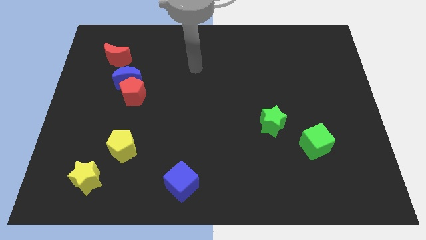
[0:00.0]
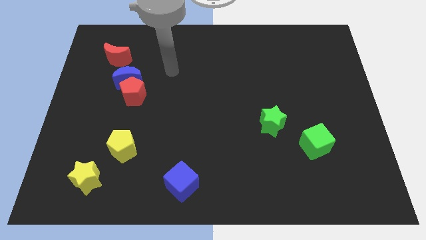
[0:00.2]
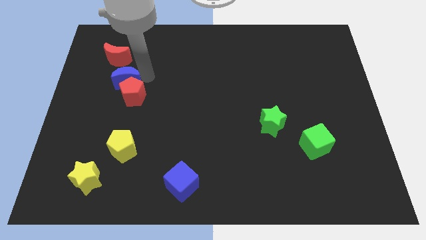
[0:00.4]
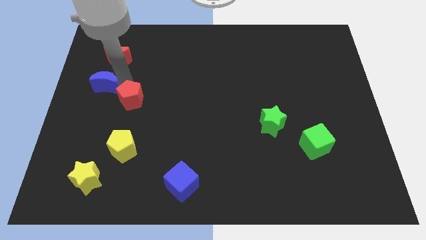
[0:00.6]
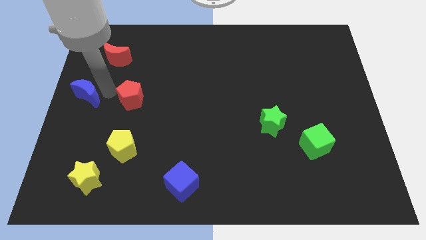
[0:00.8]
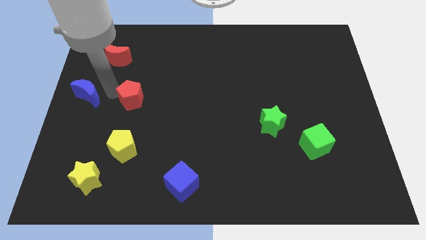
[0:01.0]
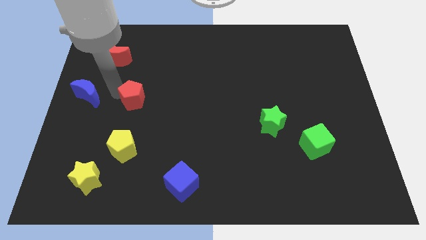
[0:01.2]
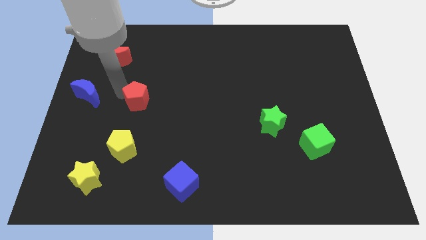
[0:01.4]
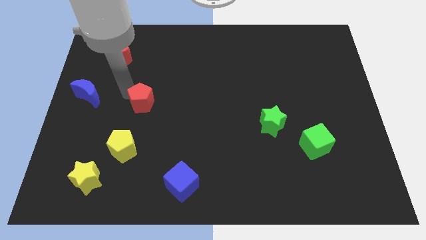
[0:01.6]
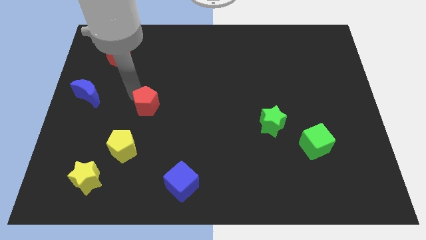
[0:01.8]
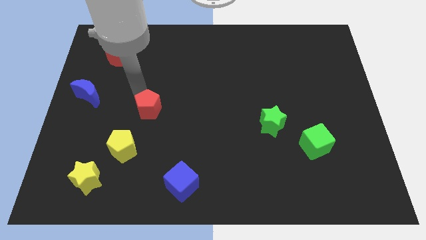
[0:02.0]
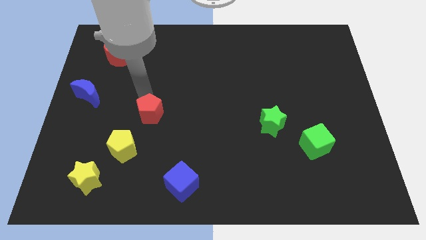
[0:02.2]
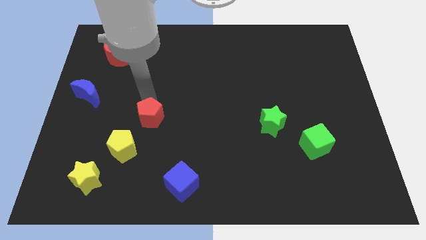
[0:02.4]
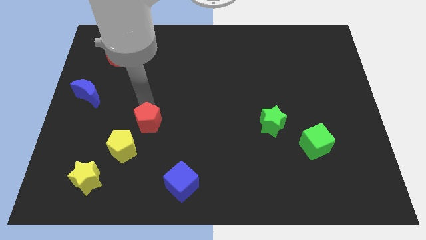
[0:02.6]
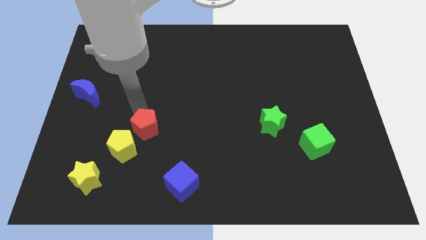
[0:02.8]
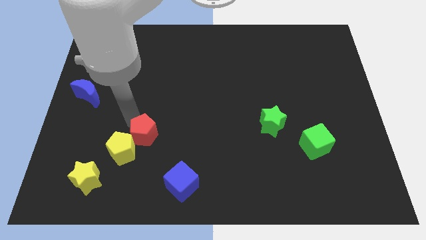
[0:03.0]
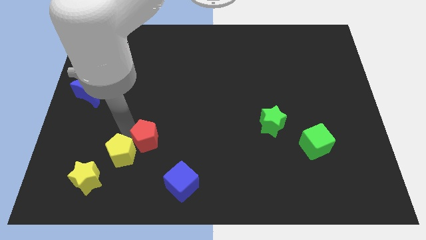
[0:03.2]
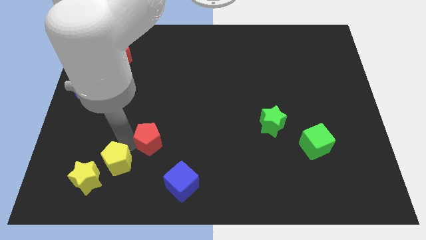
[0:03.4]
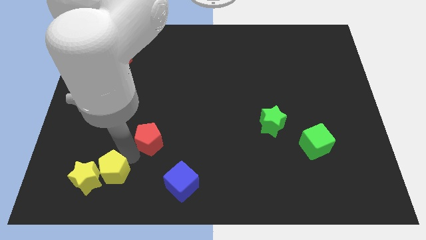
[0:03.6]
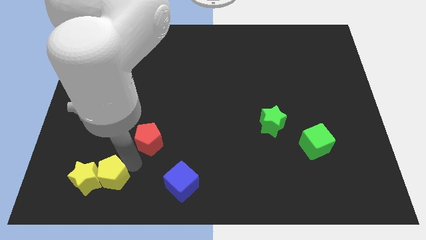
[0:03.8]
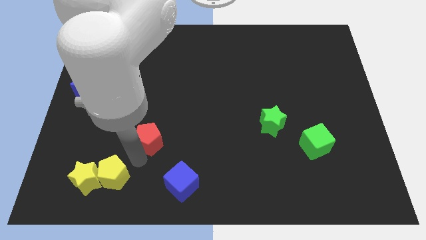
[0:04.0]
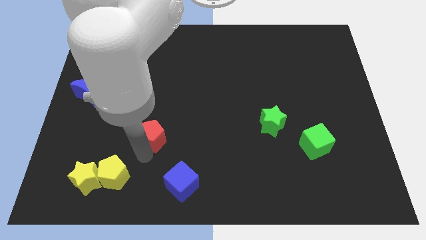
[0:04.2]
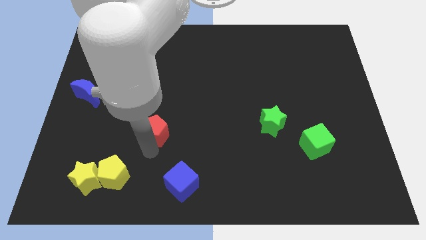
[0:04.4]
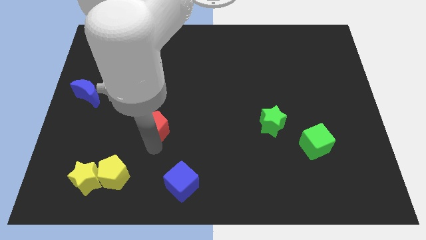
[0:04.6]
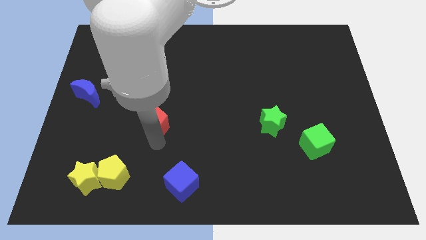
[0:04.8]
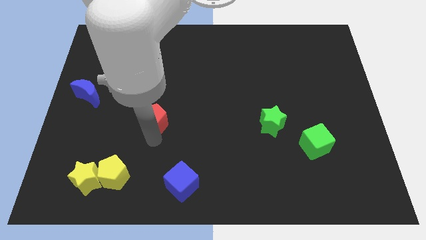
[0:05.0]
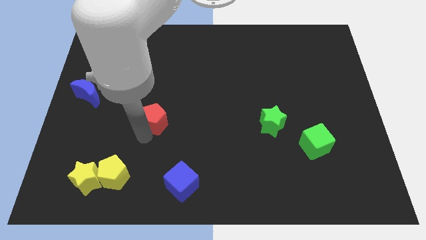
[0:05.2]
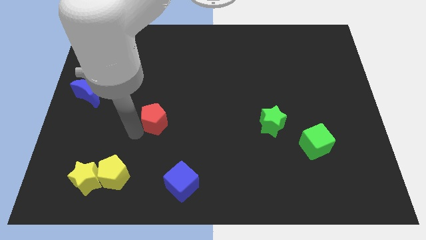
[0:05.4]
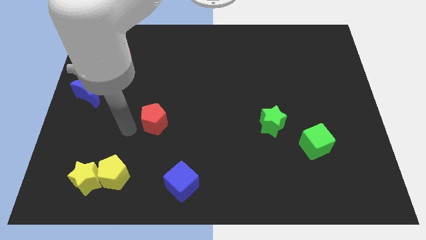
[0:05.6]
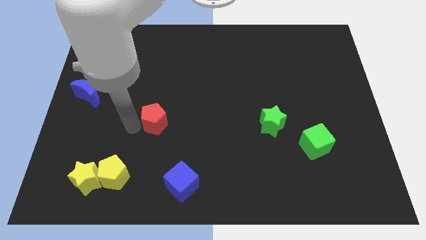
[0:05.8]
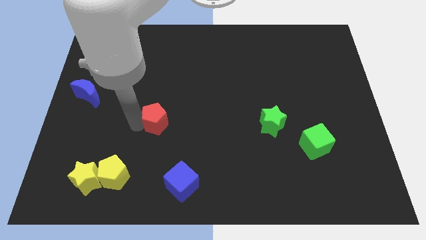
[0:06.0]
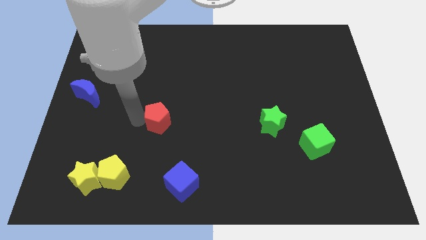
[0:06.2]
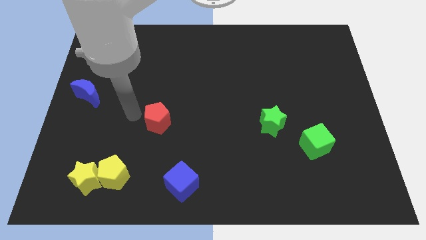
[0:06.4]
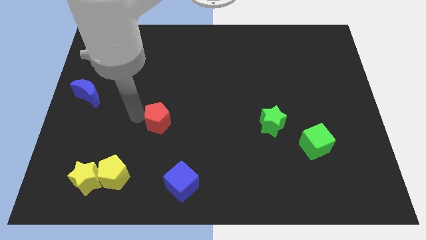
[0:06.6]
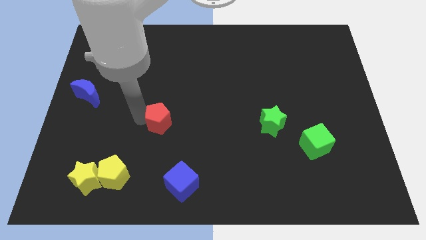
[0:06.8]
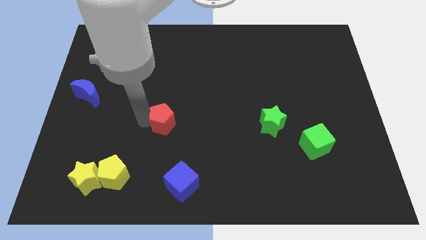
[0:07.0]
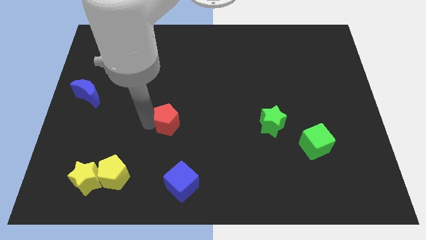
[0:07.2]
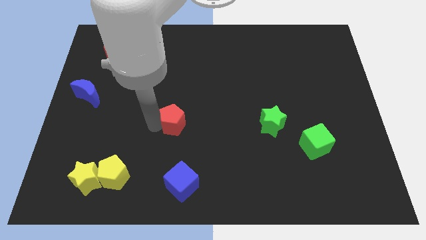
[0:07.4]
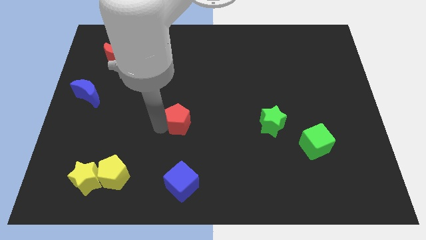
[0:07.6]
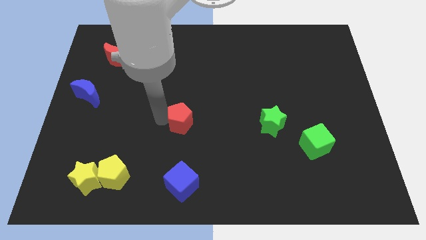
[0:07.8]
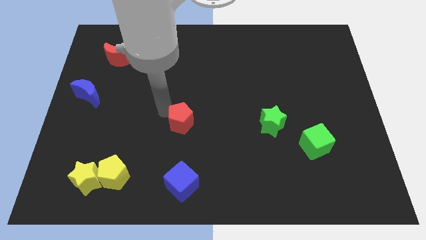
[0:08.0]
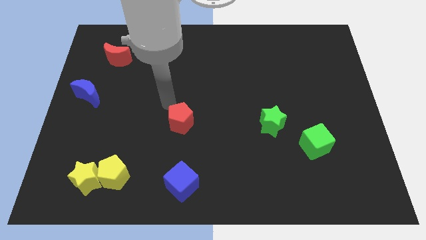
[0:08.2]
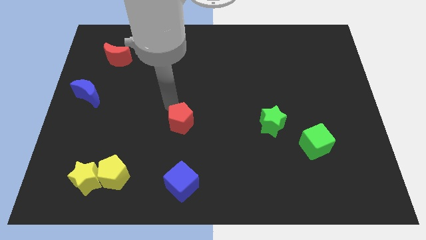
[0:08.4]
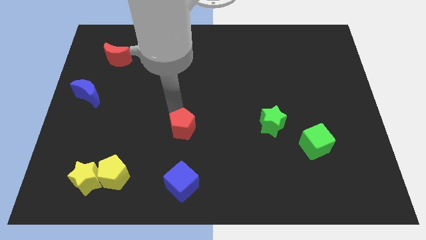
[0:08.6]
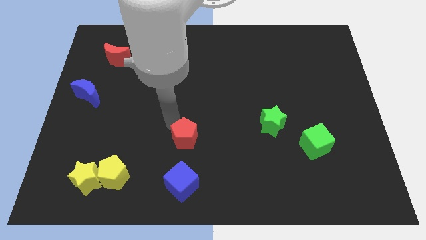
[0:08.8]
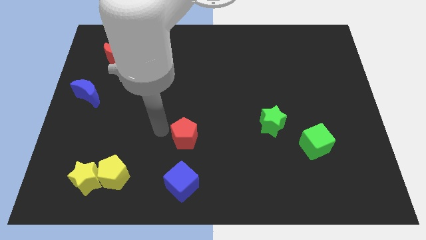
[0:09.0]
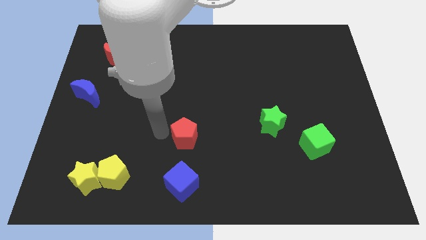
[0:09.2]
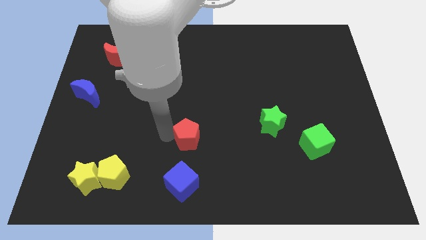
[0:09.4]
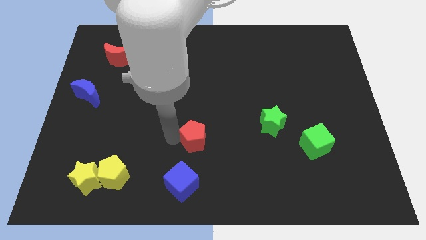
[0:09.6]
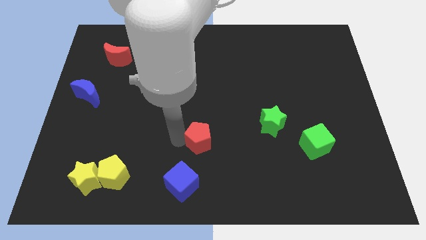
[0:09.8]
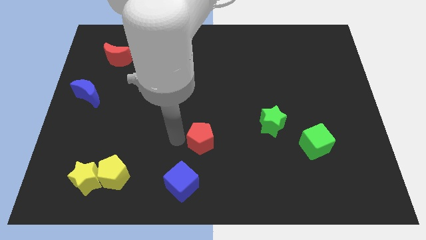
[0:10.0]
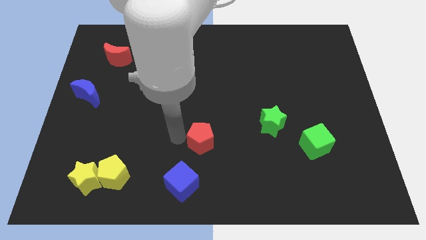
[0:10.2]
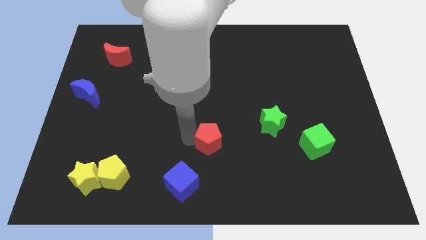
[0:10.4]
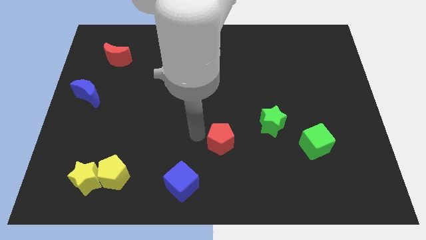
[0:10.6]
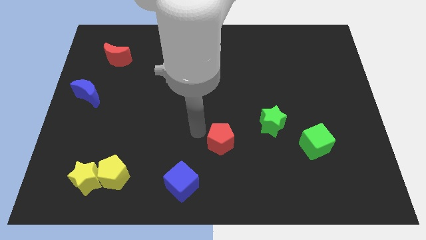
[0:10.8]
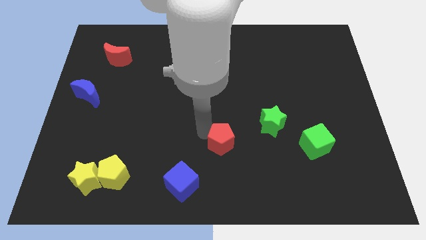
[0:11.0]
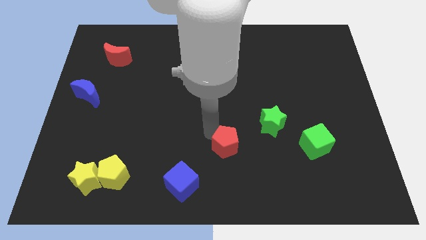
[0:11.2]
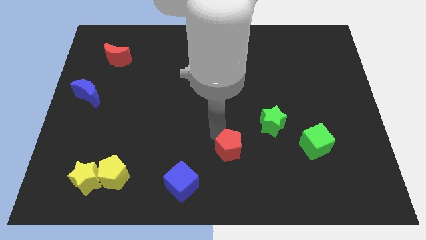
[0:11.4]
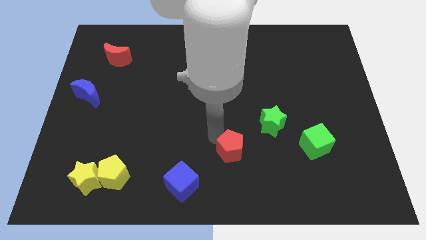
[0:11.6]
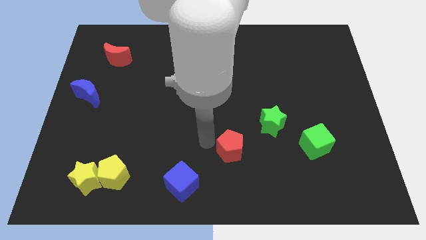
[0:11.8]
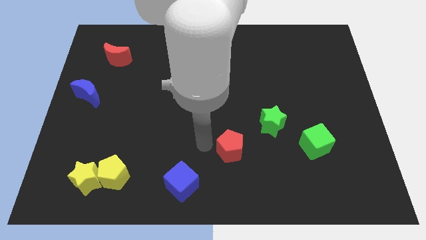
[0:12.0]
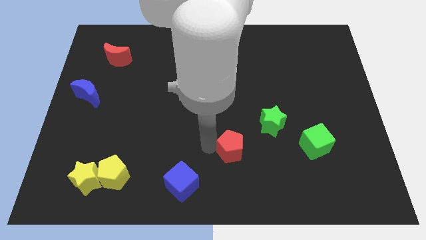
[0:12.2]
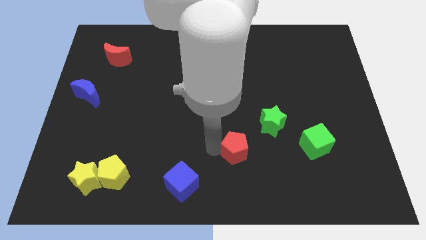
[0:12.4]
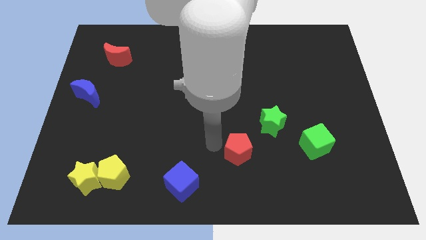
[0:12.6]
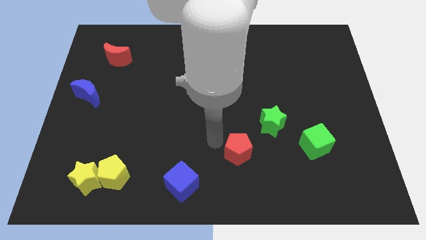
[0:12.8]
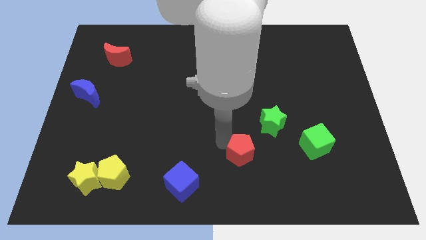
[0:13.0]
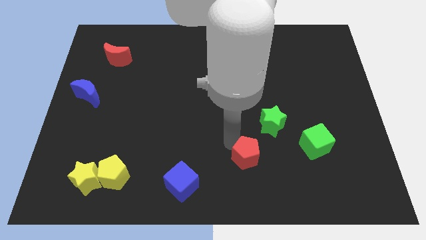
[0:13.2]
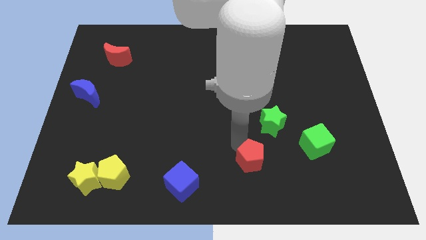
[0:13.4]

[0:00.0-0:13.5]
put the red pentagon to the bottom of the green star

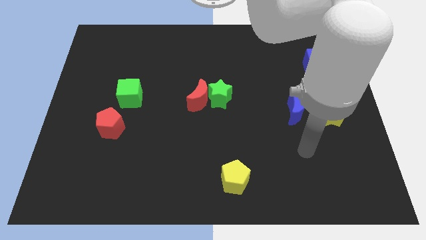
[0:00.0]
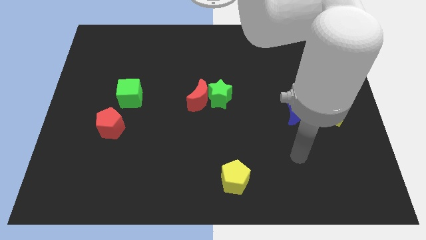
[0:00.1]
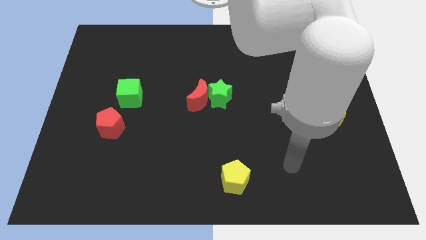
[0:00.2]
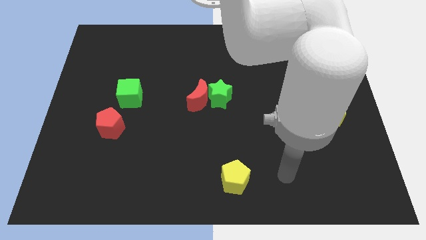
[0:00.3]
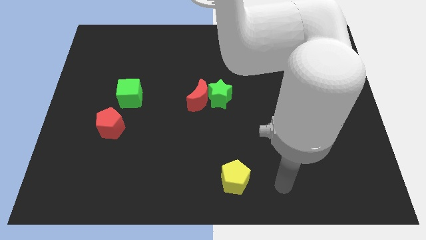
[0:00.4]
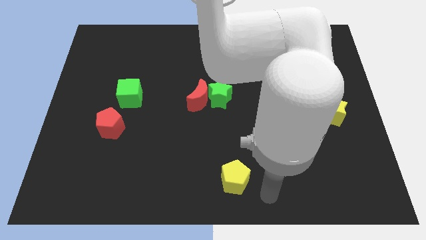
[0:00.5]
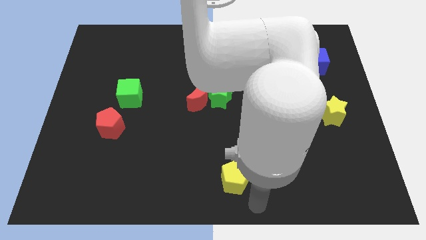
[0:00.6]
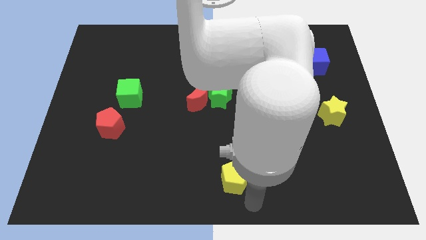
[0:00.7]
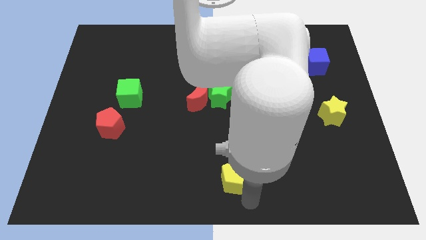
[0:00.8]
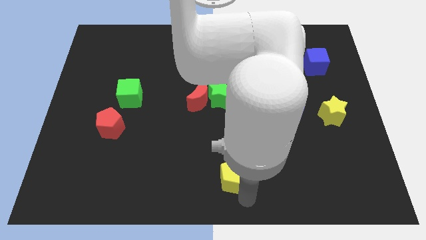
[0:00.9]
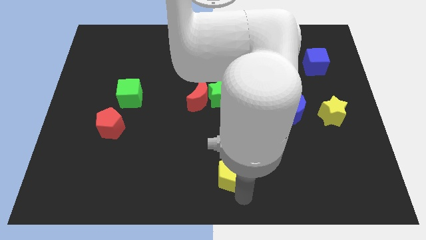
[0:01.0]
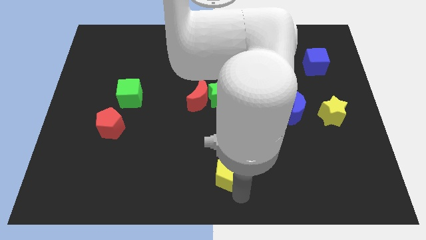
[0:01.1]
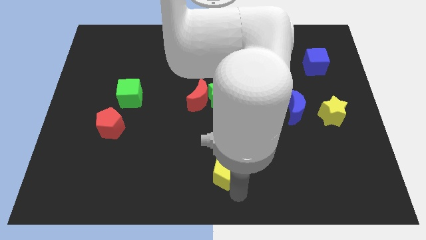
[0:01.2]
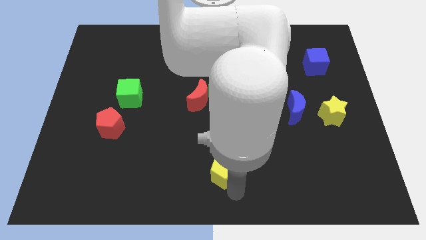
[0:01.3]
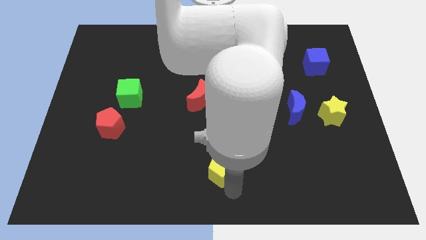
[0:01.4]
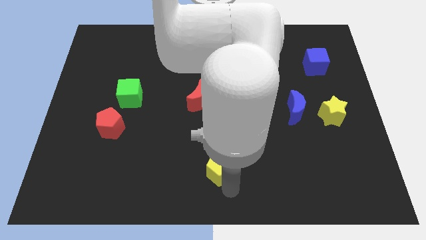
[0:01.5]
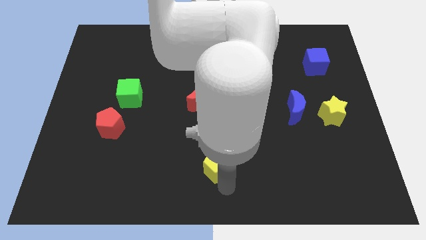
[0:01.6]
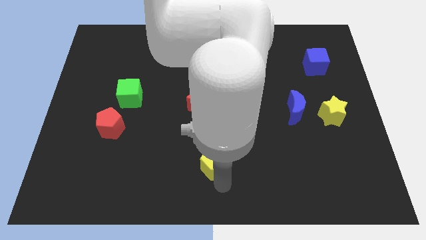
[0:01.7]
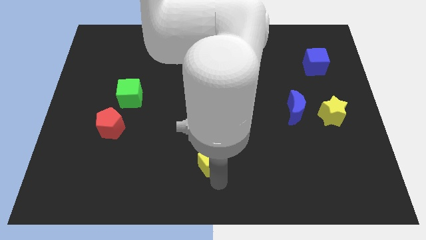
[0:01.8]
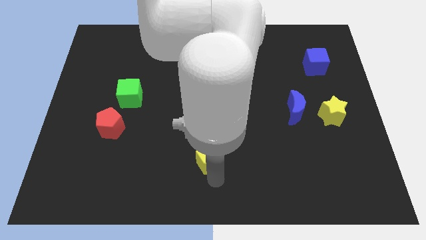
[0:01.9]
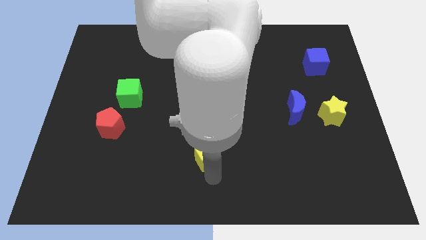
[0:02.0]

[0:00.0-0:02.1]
slide the yellow pentagon to the bottom side of the red moon
